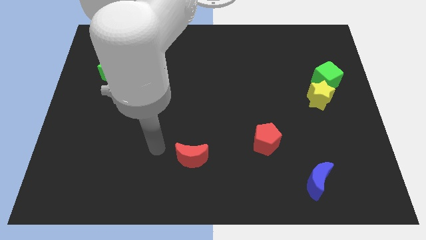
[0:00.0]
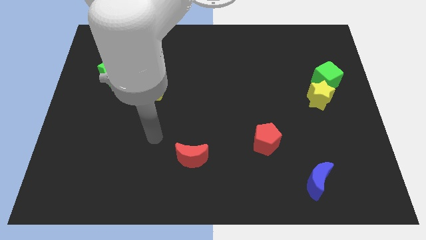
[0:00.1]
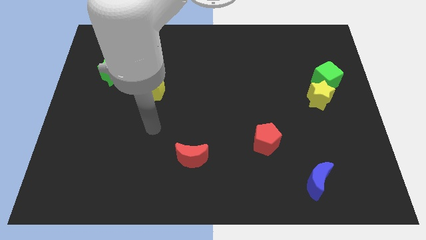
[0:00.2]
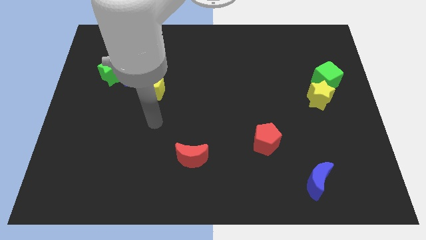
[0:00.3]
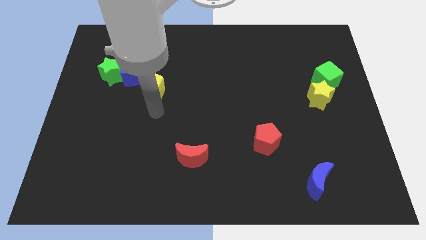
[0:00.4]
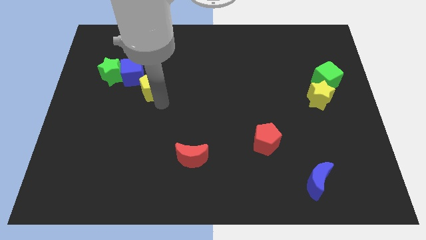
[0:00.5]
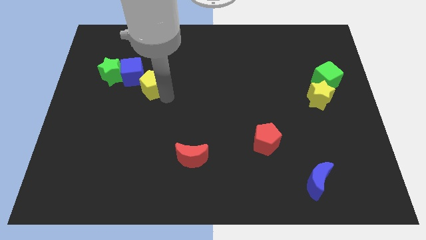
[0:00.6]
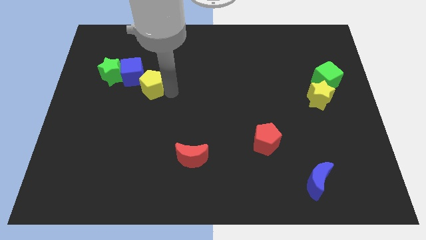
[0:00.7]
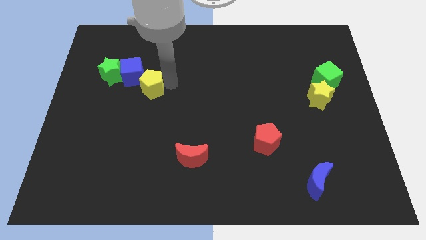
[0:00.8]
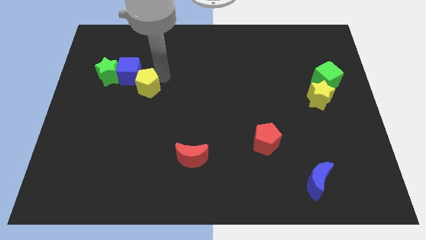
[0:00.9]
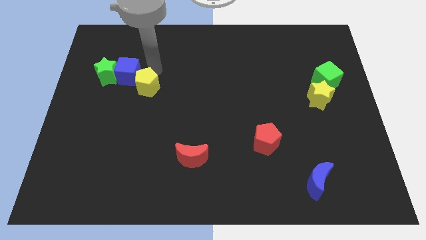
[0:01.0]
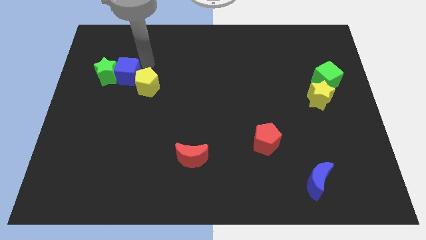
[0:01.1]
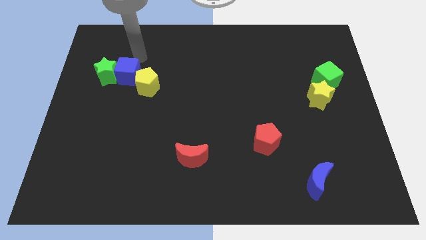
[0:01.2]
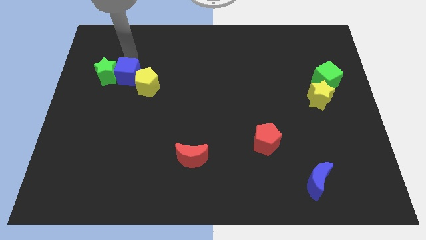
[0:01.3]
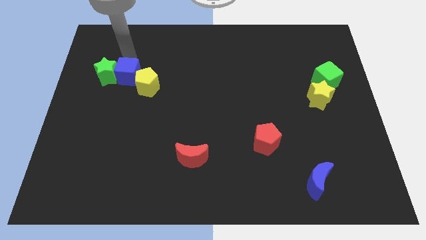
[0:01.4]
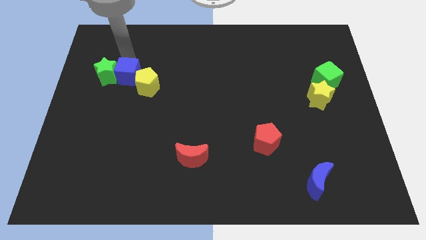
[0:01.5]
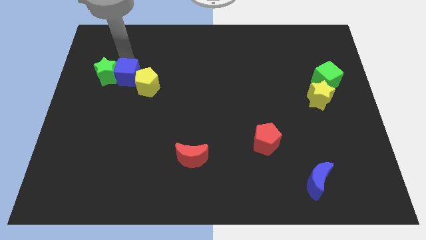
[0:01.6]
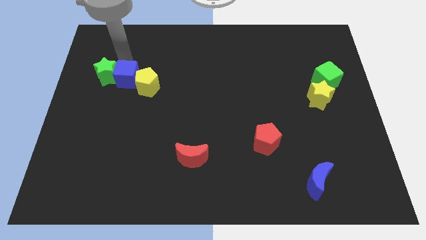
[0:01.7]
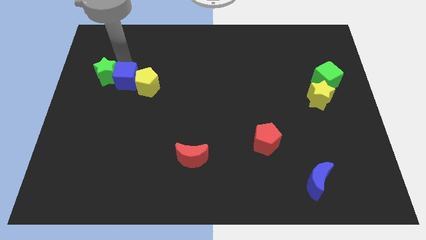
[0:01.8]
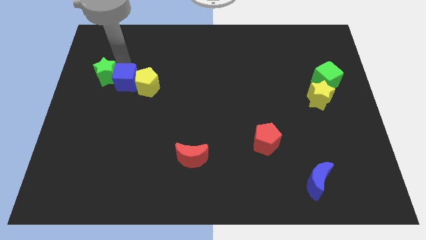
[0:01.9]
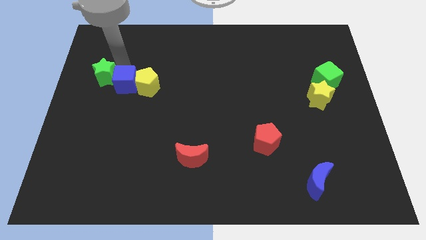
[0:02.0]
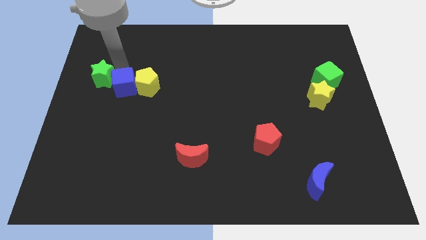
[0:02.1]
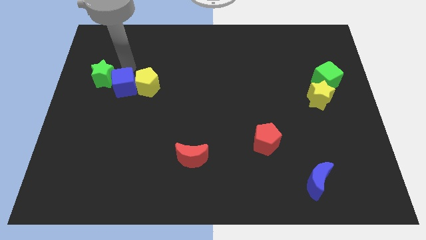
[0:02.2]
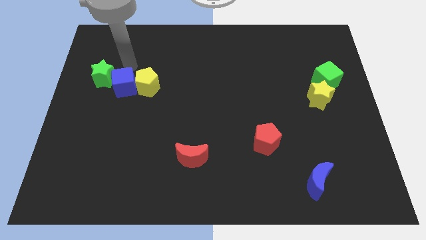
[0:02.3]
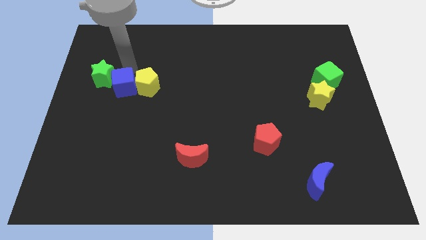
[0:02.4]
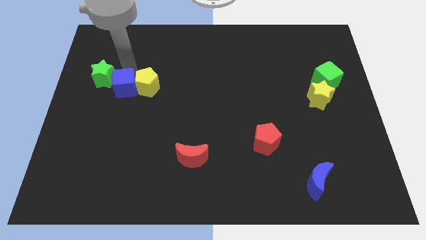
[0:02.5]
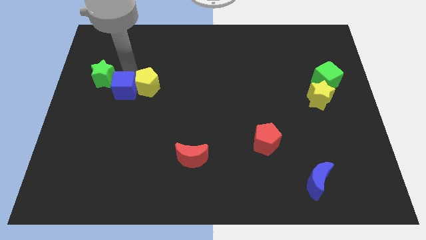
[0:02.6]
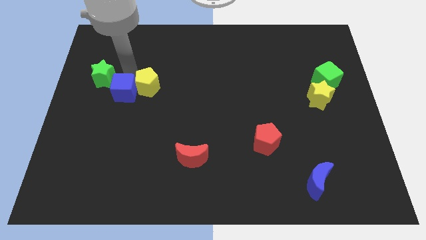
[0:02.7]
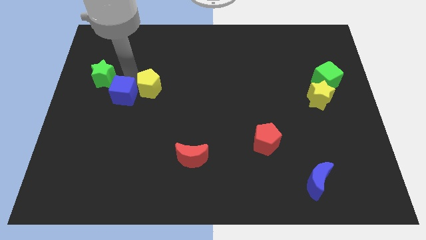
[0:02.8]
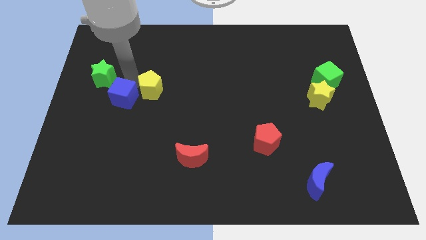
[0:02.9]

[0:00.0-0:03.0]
slide the blue cube a bit downwards

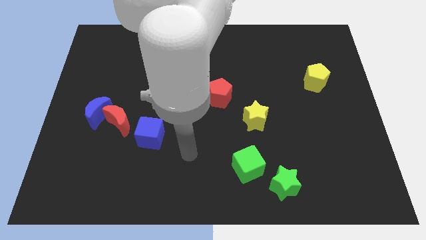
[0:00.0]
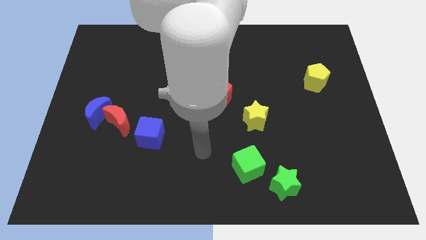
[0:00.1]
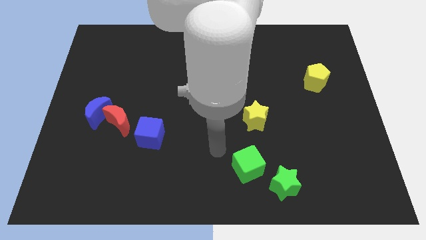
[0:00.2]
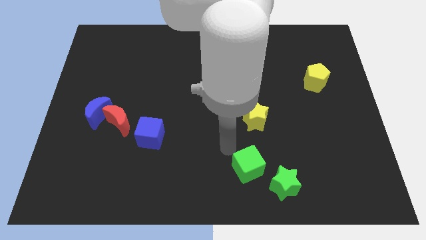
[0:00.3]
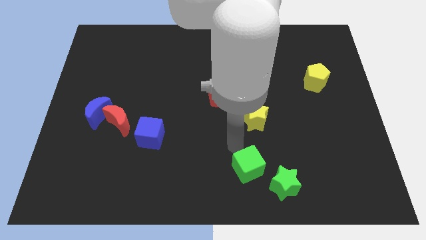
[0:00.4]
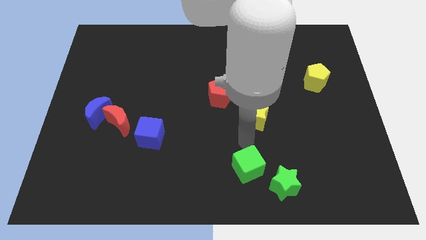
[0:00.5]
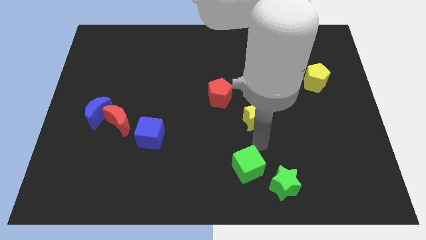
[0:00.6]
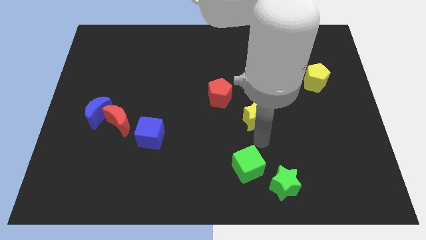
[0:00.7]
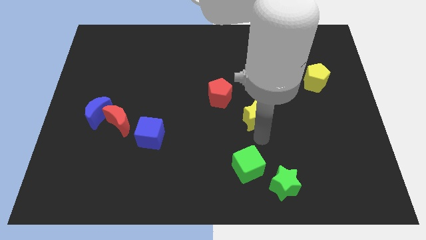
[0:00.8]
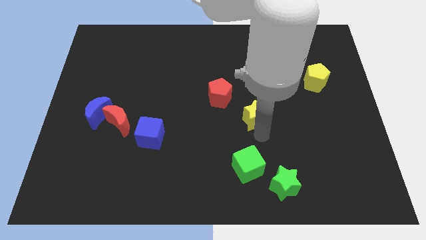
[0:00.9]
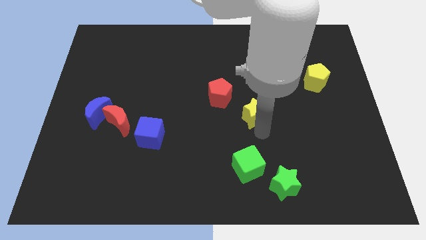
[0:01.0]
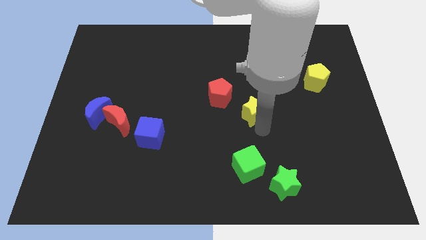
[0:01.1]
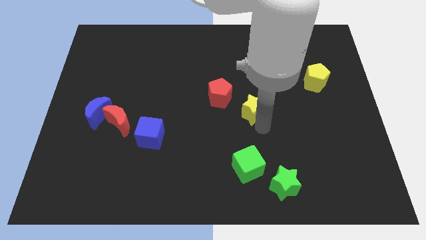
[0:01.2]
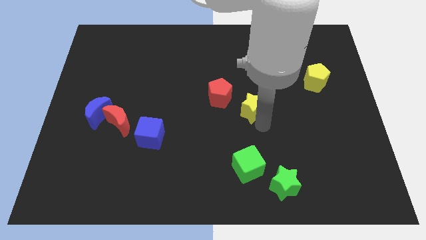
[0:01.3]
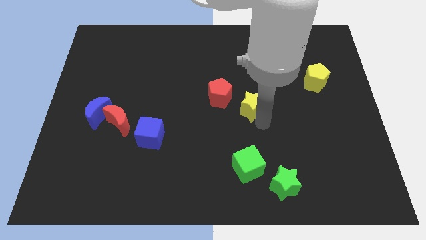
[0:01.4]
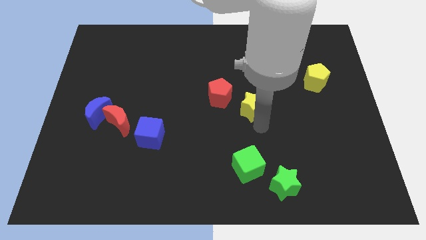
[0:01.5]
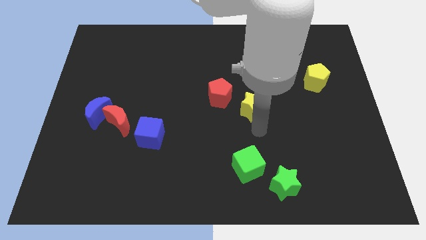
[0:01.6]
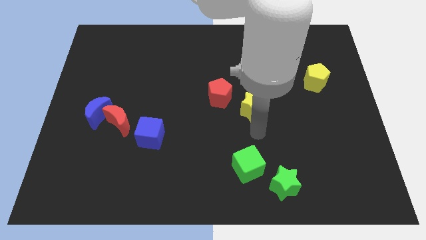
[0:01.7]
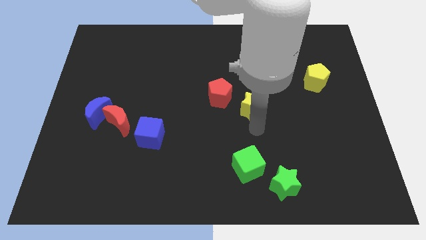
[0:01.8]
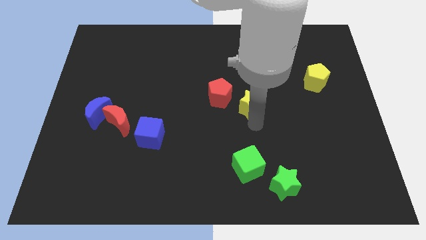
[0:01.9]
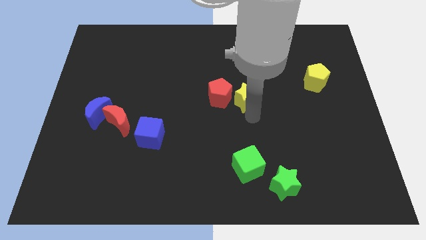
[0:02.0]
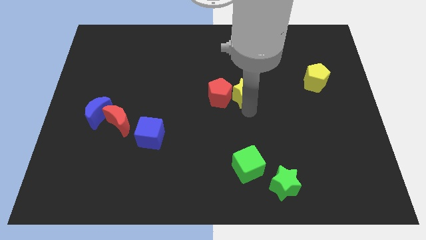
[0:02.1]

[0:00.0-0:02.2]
move the yellow star somewhat up

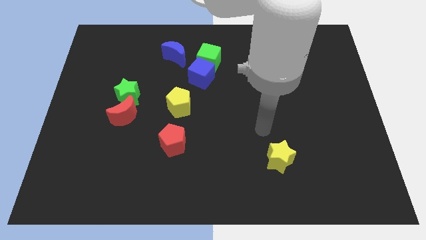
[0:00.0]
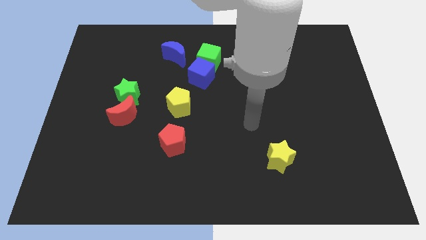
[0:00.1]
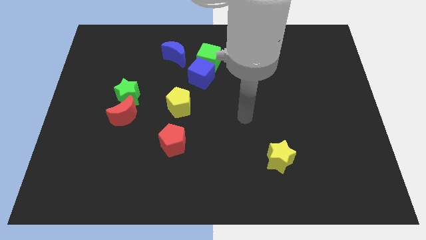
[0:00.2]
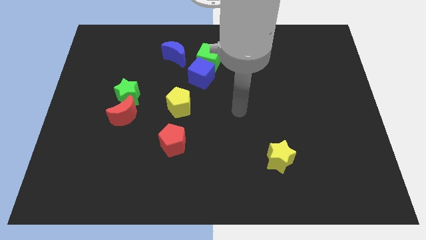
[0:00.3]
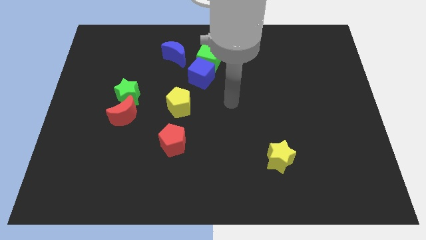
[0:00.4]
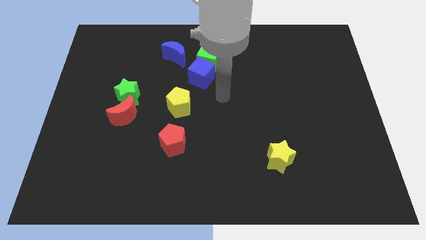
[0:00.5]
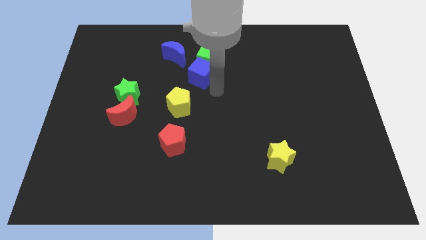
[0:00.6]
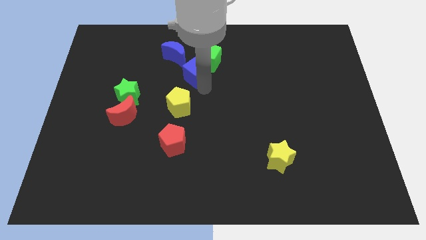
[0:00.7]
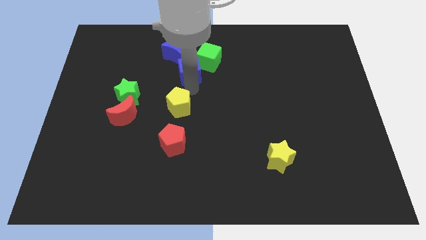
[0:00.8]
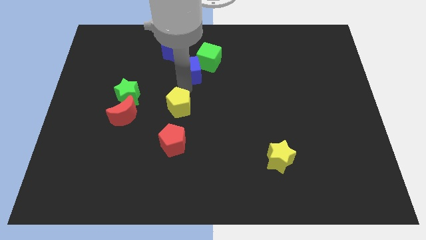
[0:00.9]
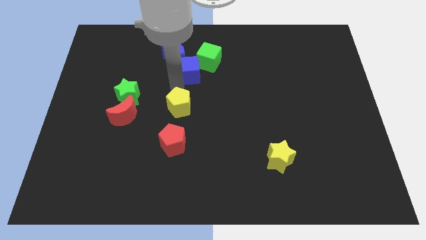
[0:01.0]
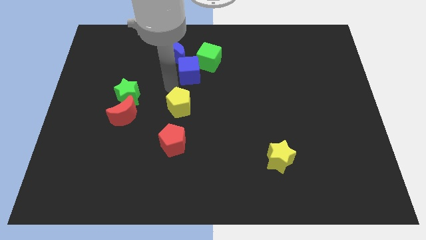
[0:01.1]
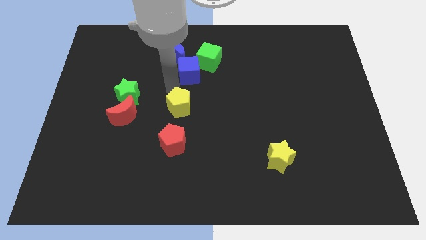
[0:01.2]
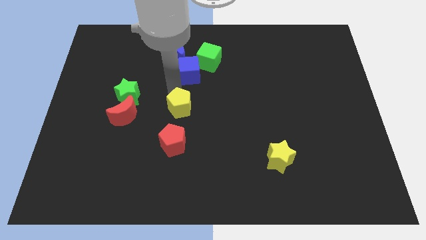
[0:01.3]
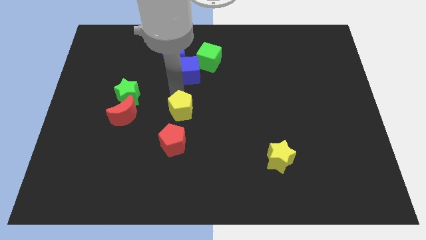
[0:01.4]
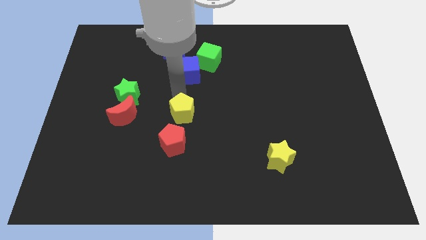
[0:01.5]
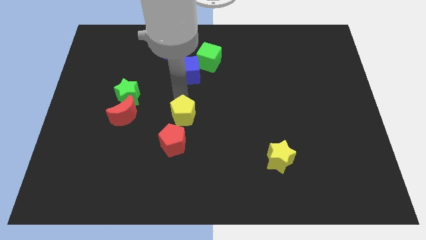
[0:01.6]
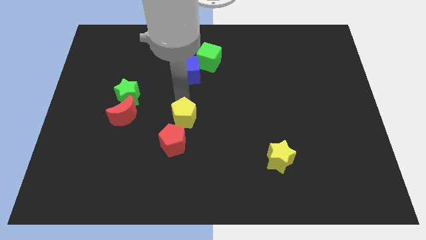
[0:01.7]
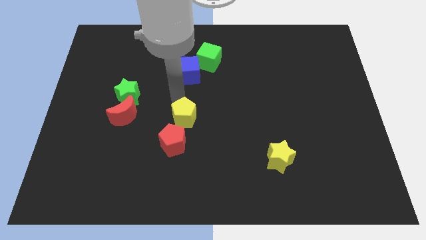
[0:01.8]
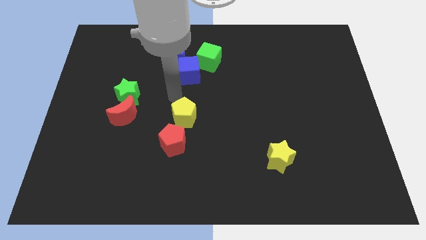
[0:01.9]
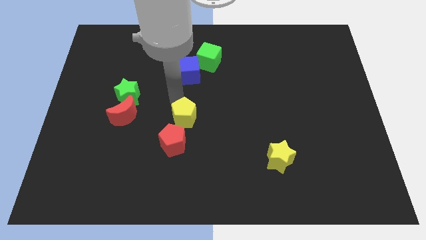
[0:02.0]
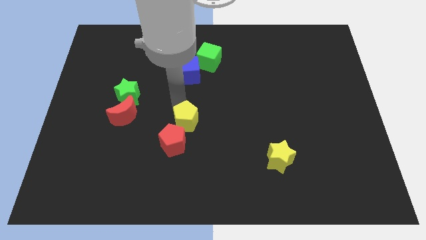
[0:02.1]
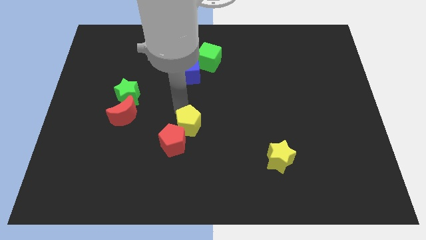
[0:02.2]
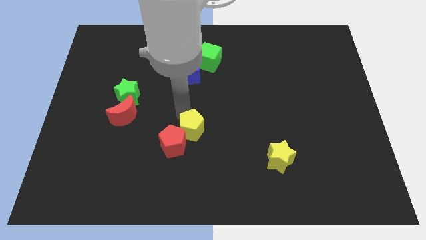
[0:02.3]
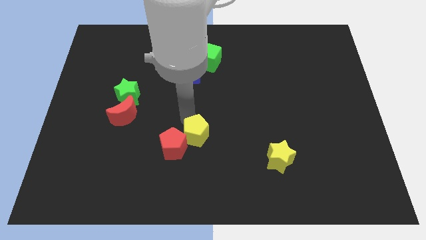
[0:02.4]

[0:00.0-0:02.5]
slide the yellow pentagon downwards a little bit

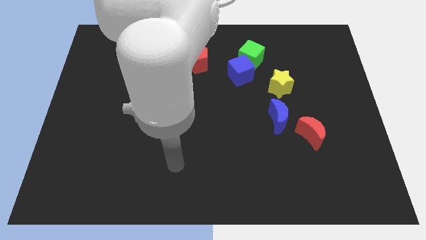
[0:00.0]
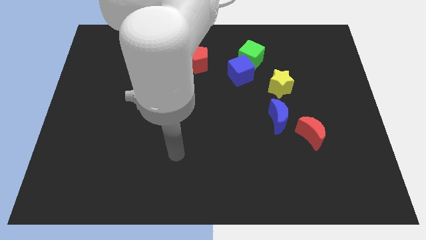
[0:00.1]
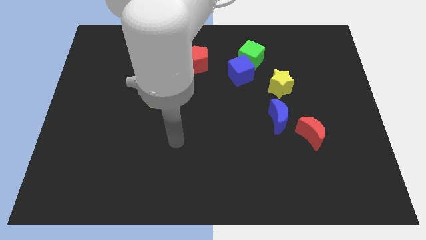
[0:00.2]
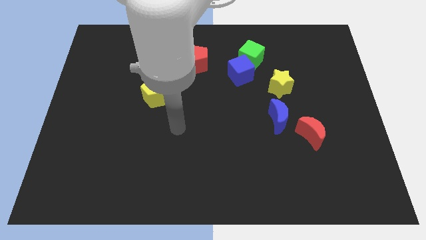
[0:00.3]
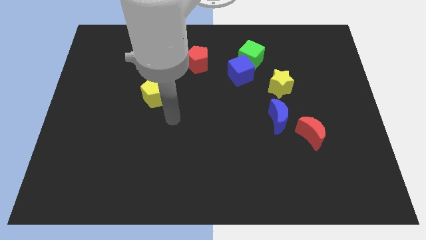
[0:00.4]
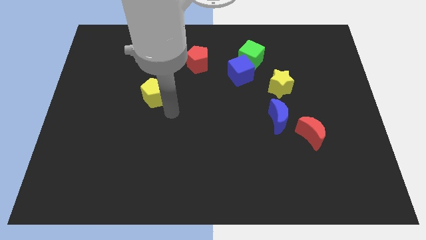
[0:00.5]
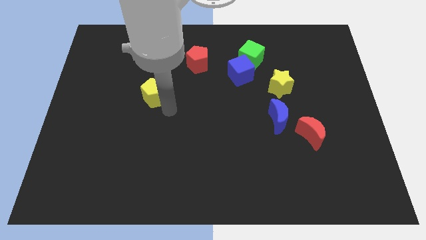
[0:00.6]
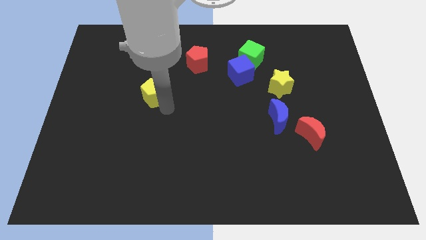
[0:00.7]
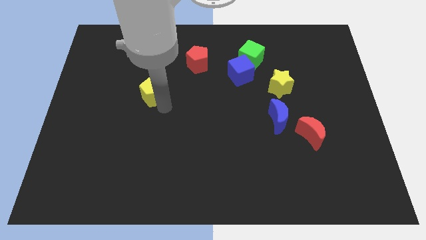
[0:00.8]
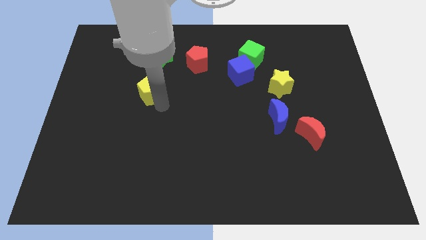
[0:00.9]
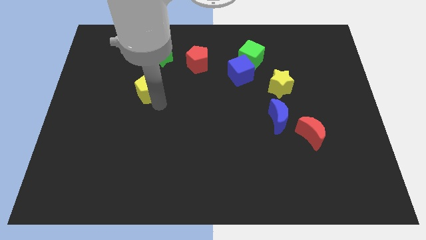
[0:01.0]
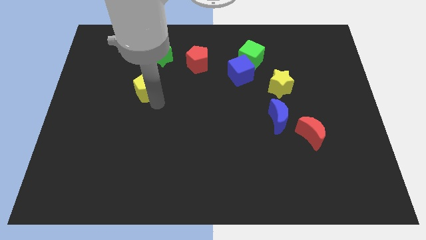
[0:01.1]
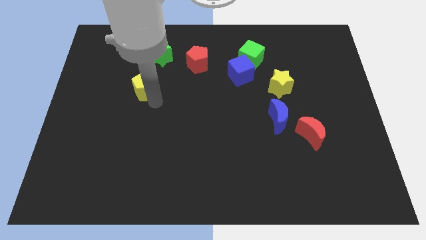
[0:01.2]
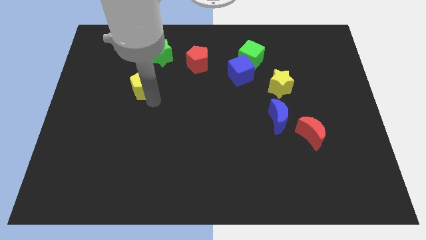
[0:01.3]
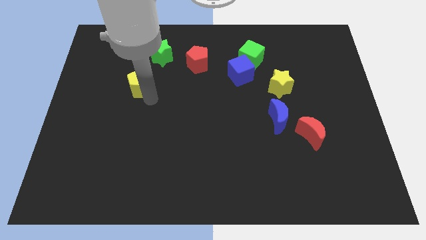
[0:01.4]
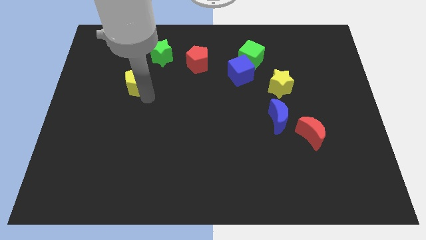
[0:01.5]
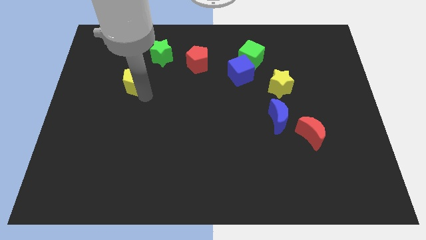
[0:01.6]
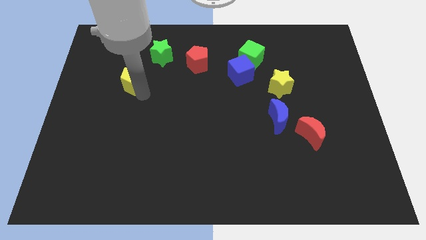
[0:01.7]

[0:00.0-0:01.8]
move the yellow pentagon up and to the left a bit
